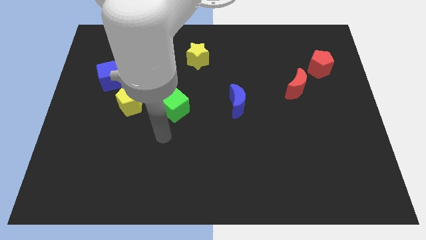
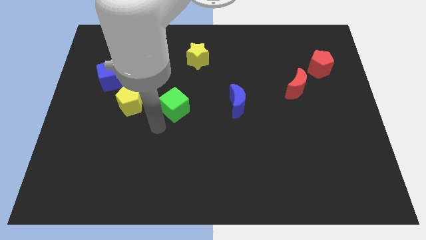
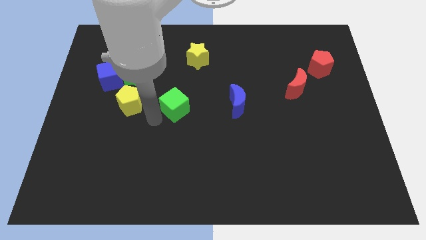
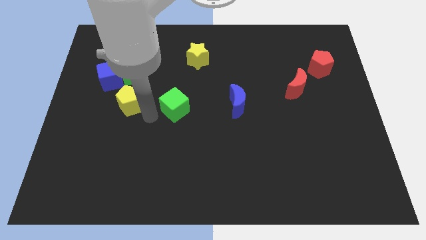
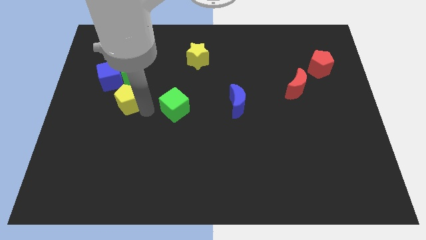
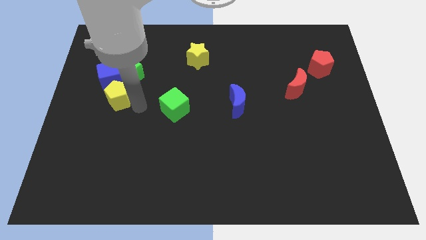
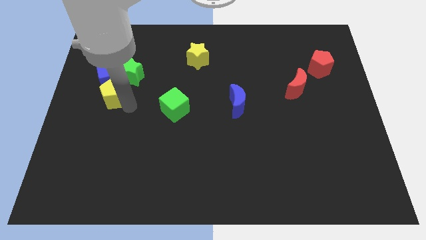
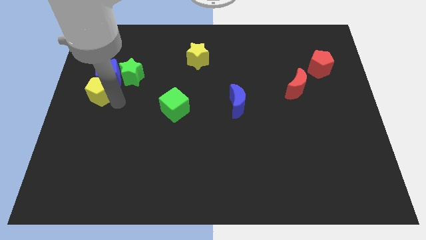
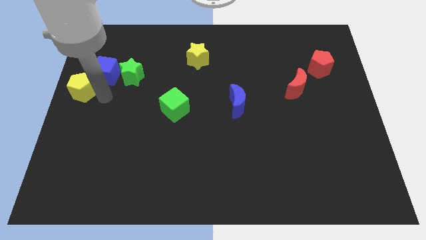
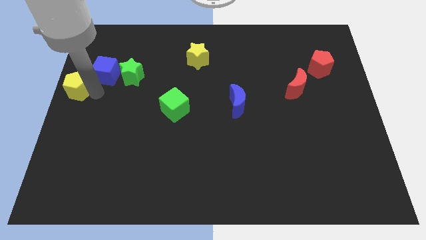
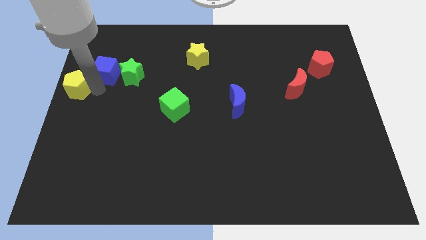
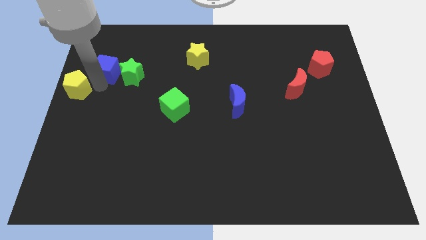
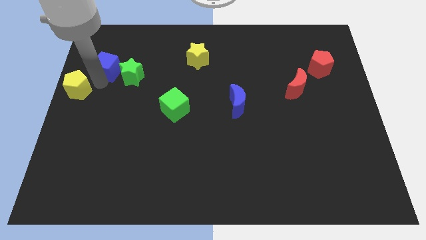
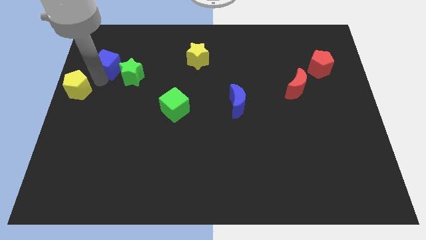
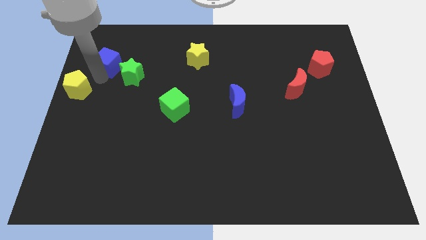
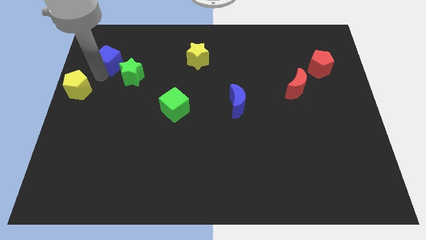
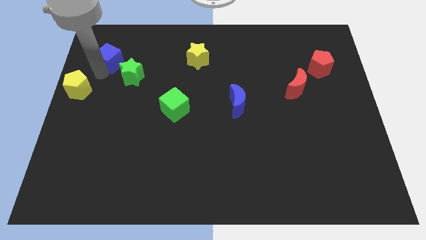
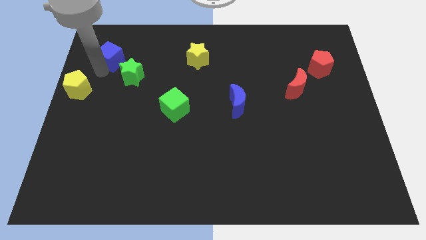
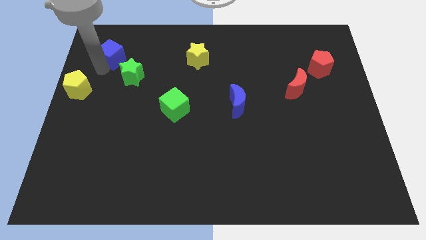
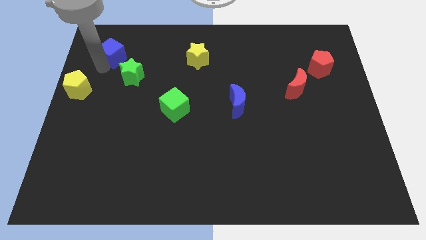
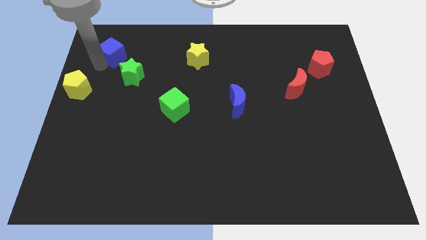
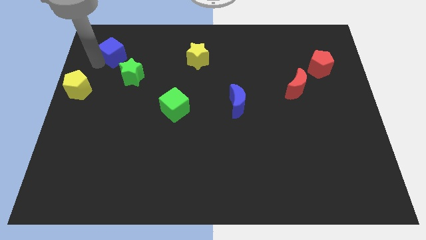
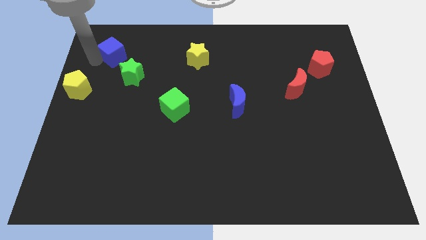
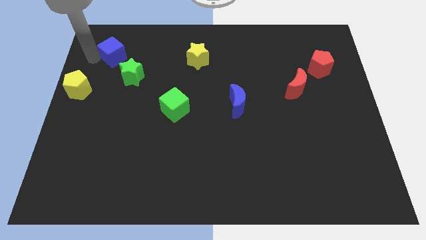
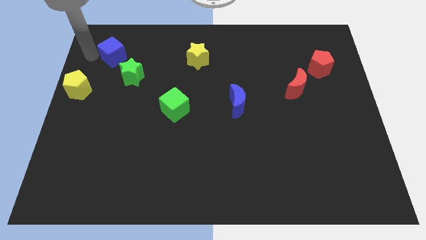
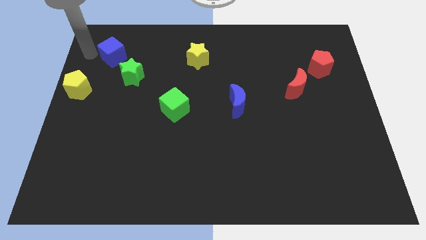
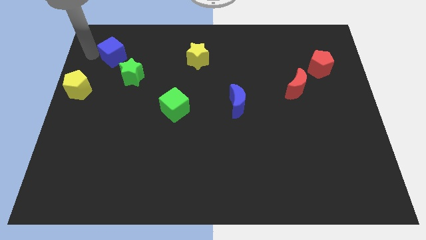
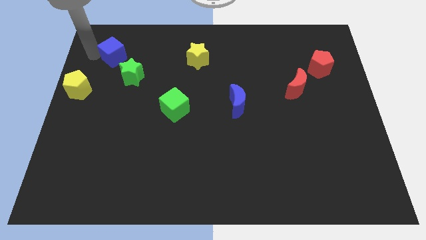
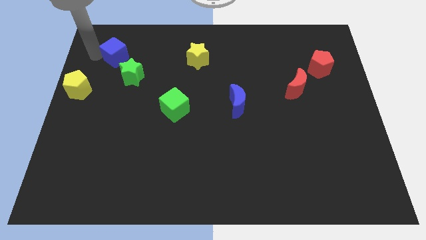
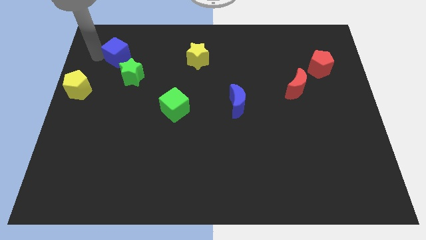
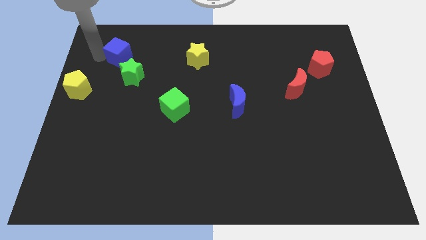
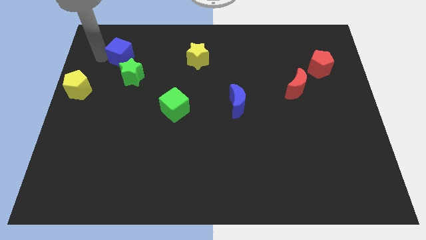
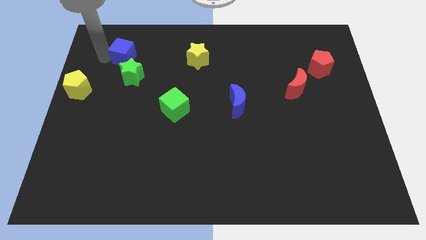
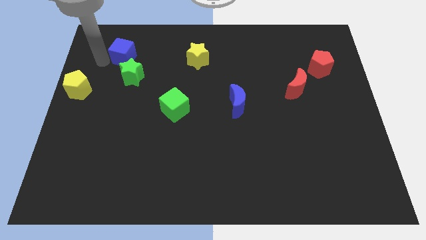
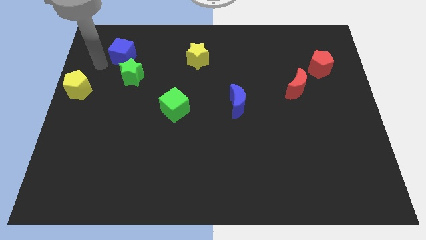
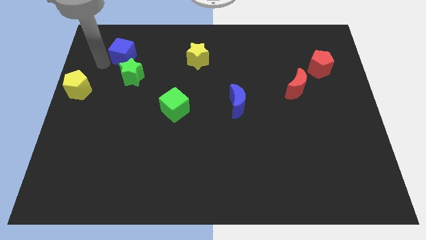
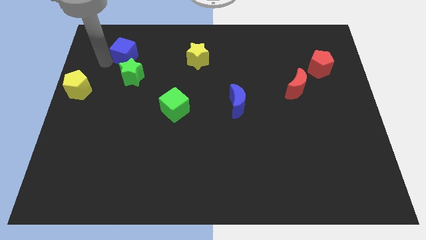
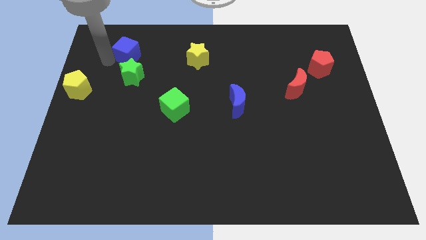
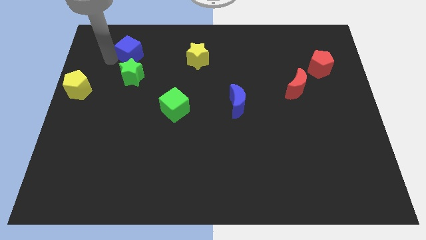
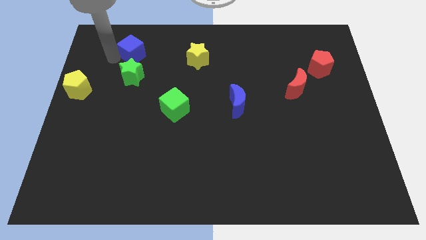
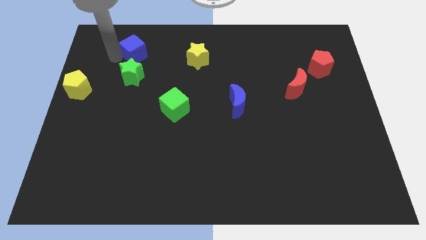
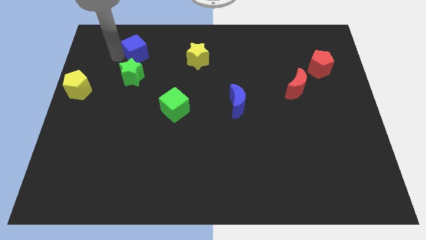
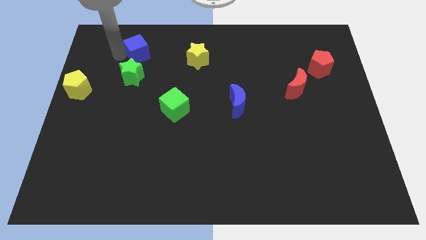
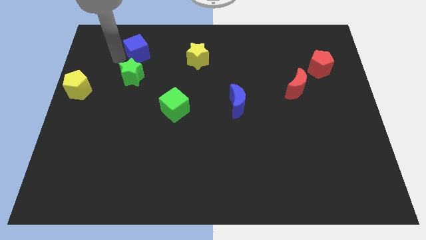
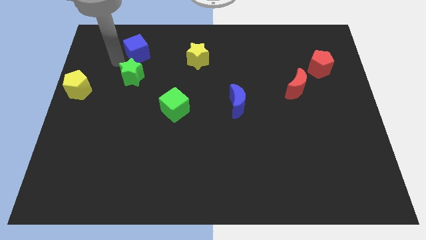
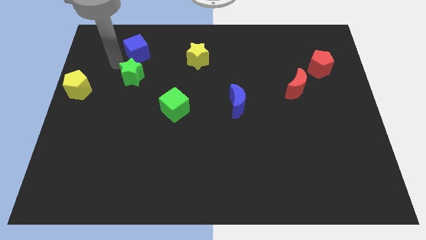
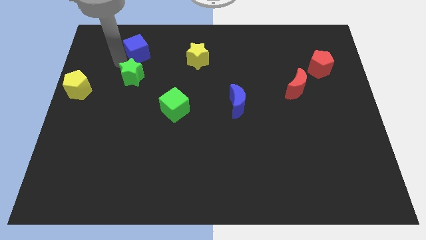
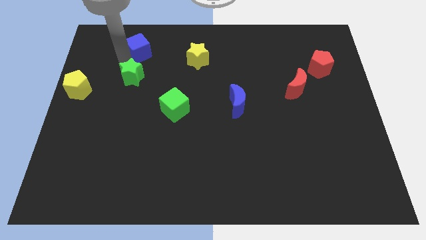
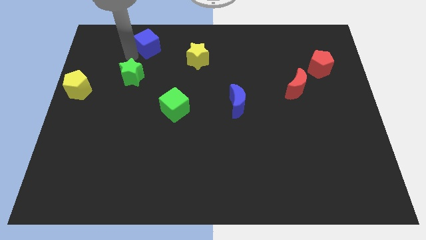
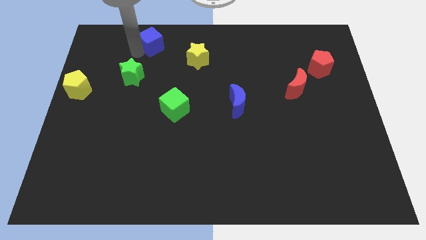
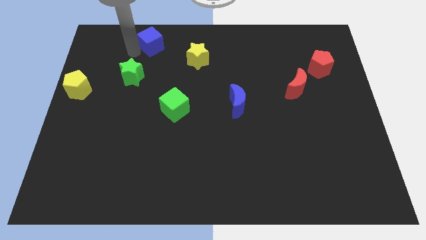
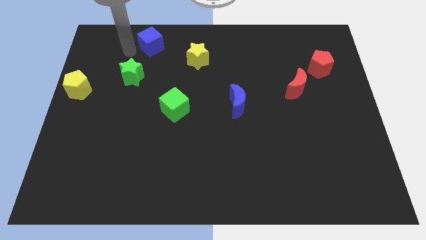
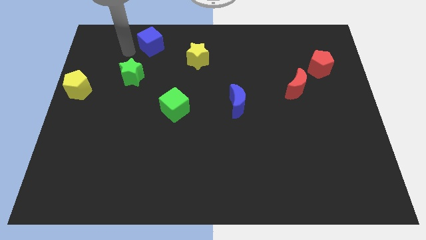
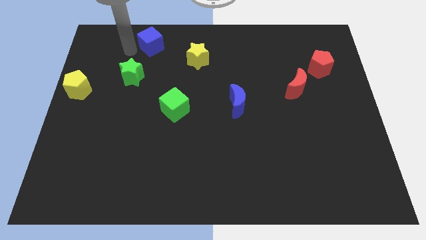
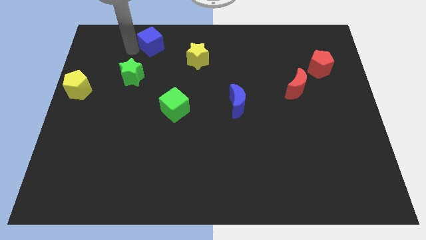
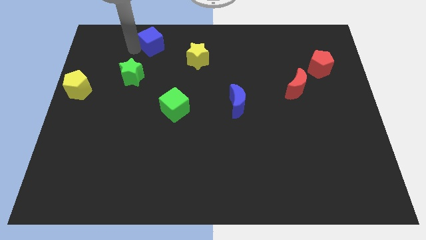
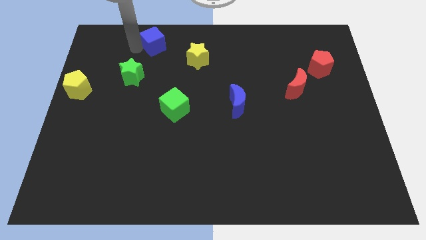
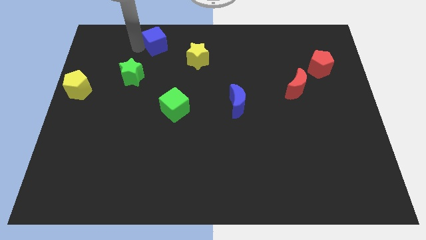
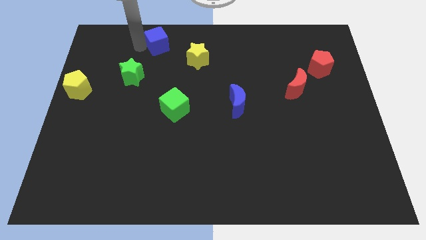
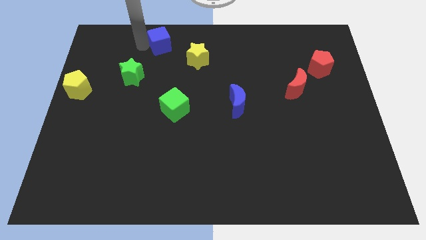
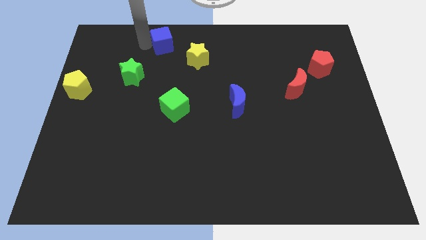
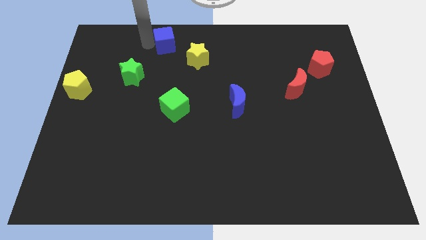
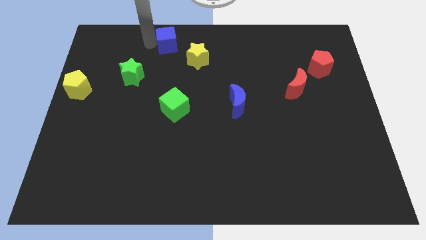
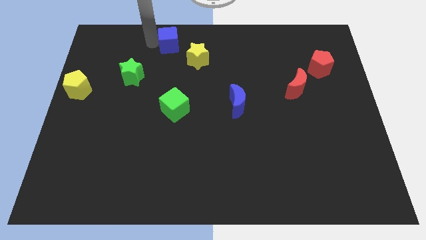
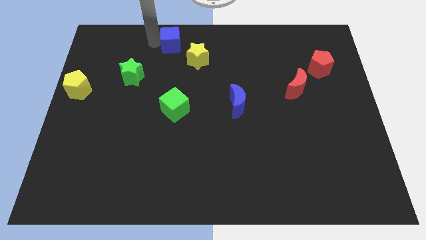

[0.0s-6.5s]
put the blue cube to the towards your base

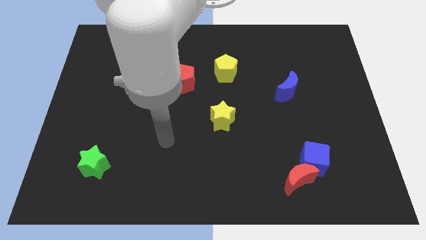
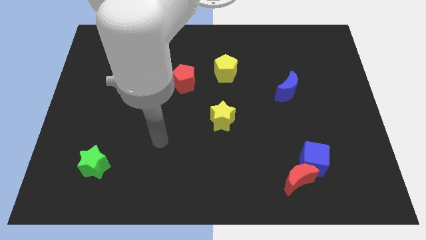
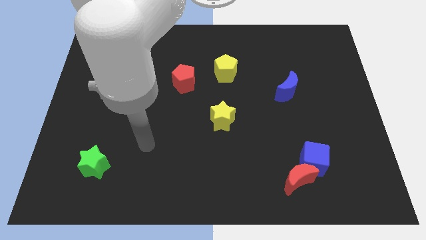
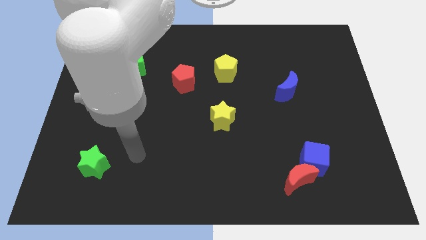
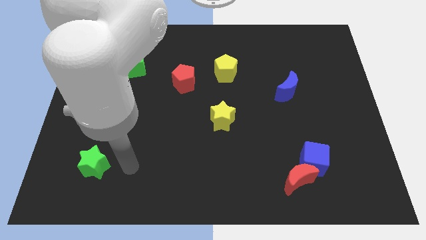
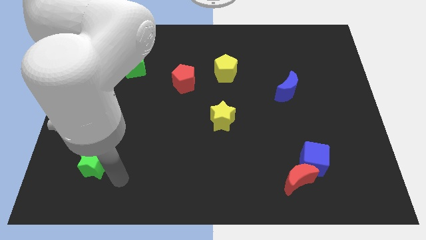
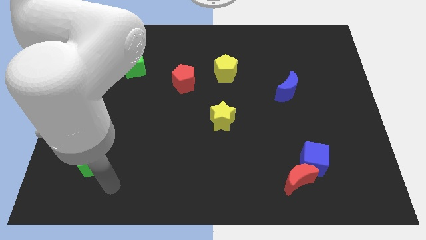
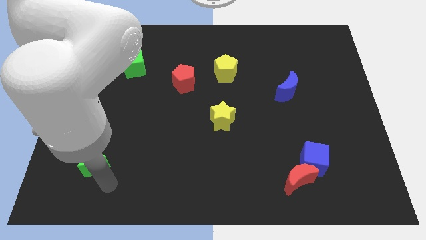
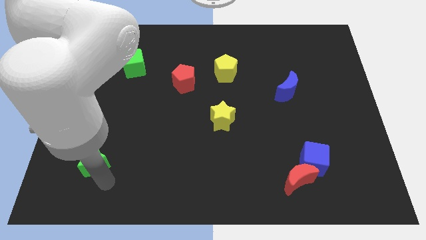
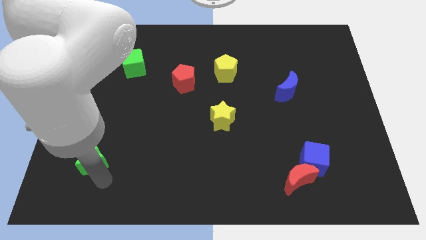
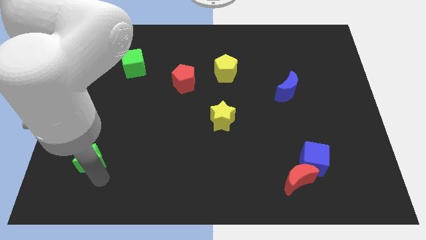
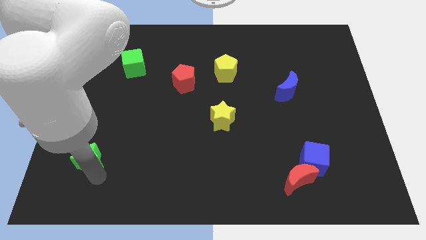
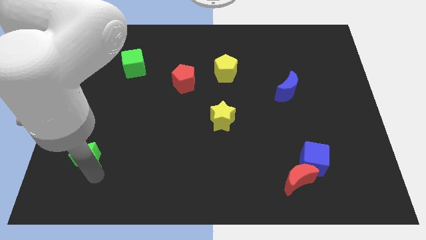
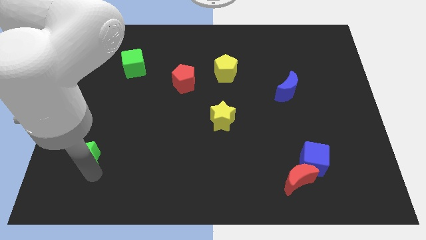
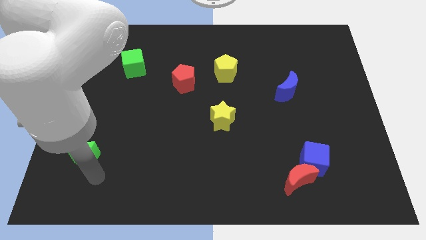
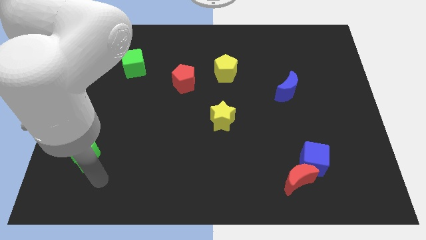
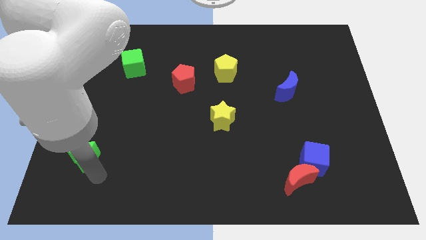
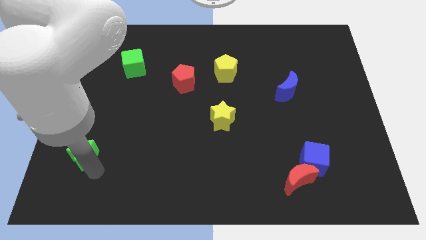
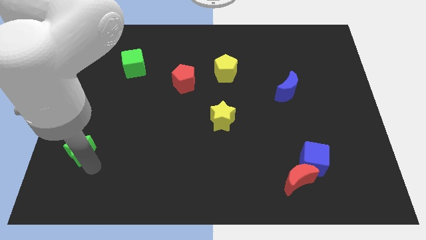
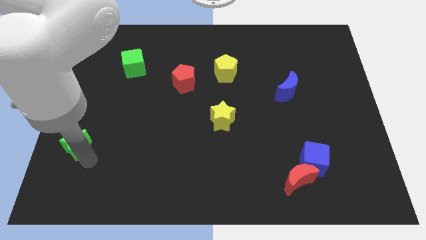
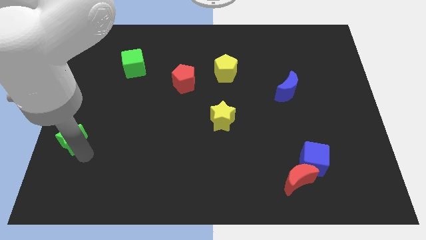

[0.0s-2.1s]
move the green star to the left side of the board
